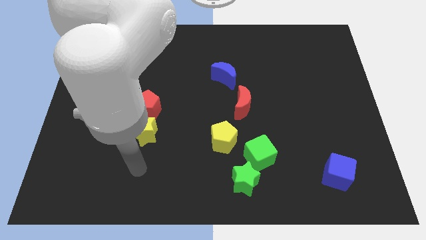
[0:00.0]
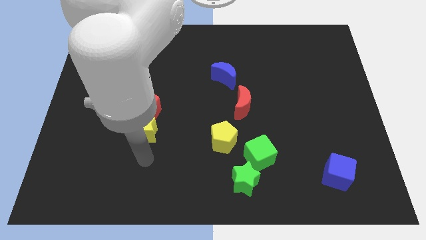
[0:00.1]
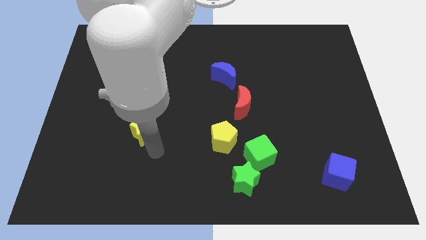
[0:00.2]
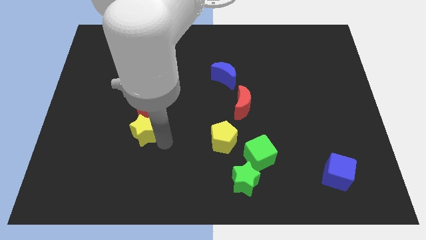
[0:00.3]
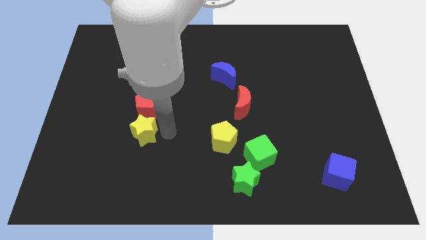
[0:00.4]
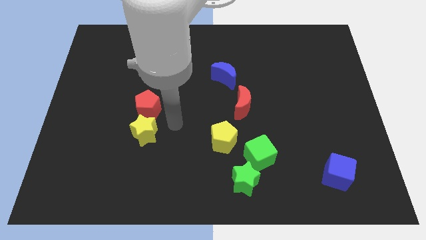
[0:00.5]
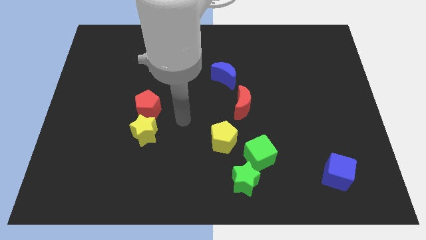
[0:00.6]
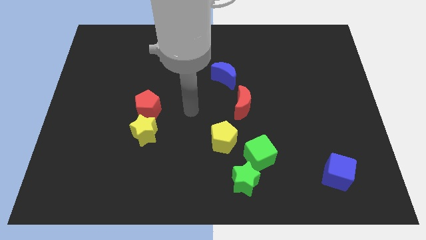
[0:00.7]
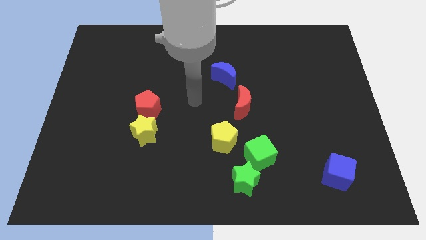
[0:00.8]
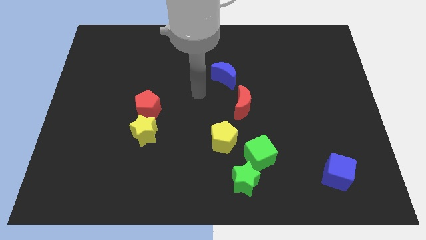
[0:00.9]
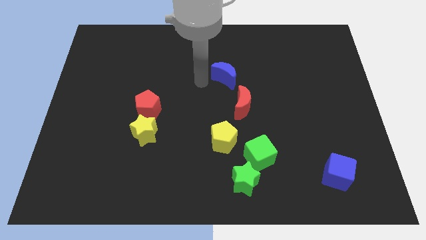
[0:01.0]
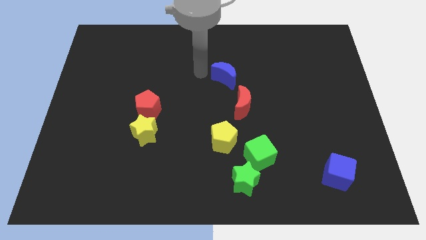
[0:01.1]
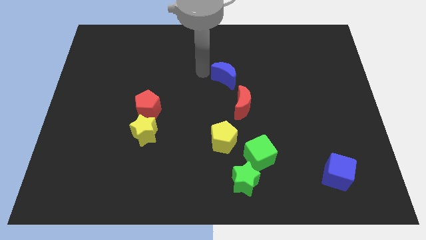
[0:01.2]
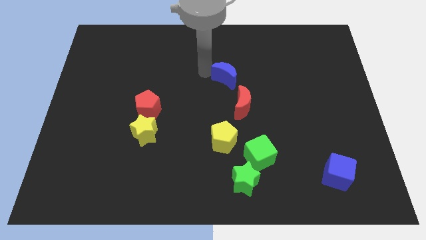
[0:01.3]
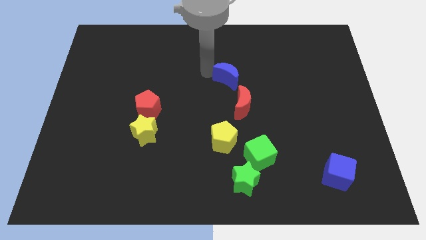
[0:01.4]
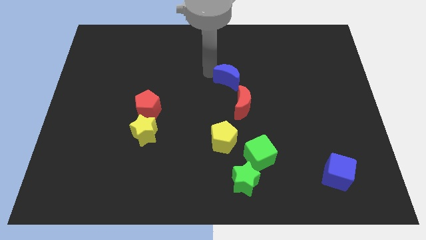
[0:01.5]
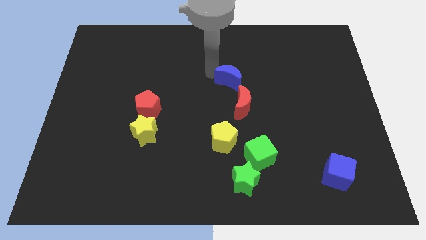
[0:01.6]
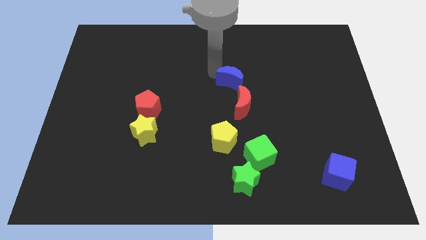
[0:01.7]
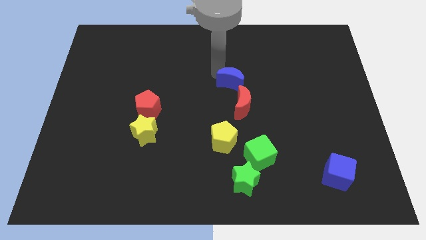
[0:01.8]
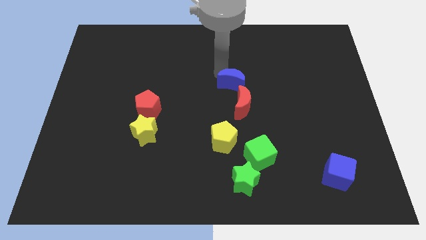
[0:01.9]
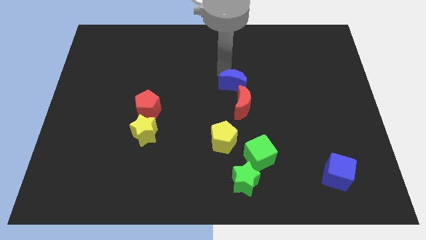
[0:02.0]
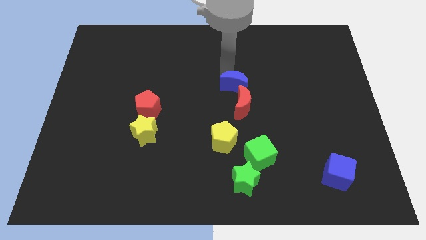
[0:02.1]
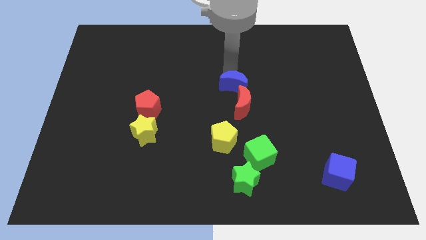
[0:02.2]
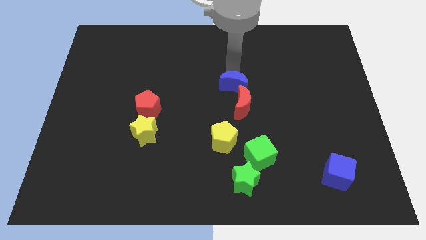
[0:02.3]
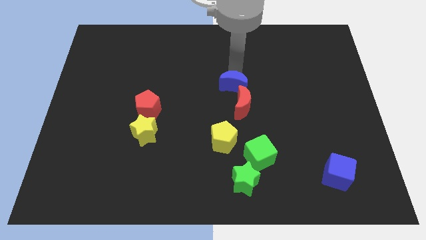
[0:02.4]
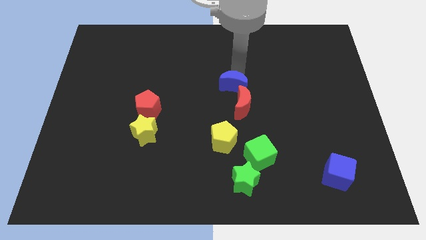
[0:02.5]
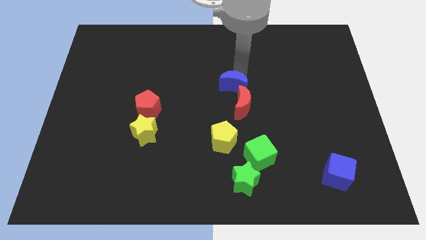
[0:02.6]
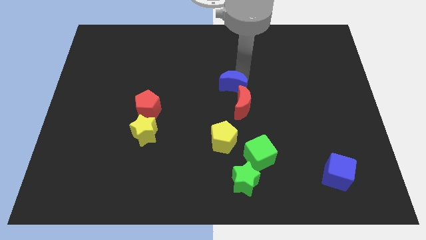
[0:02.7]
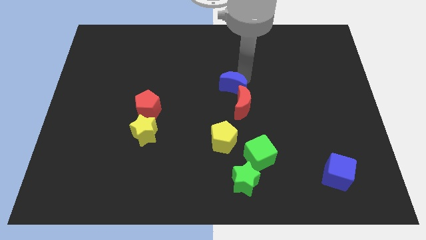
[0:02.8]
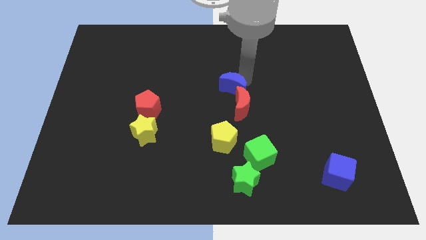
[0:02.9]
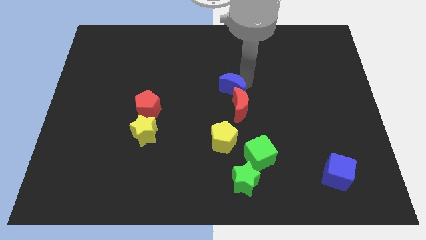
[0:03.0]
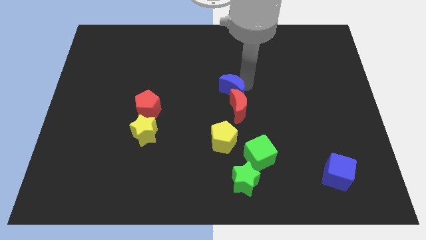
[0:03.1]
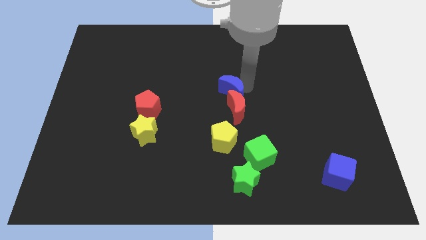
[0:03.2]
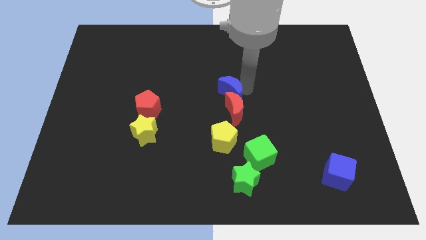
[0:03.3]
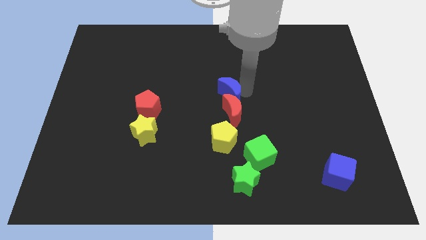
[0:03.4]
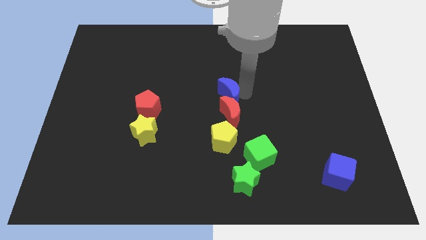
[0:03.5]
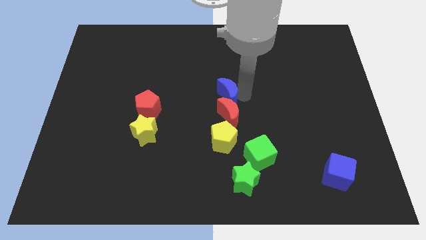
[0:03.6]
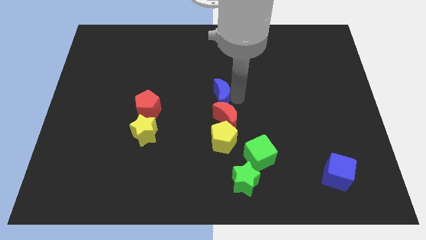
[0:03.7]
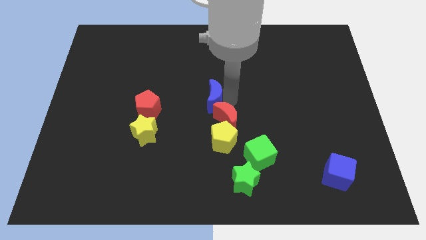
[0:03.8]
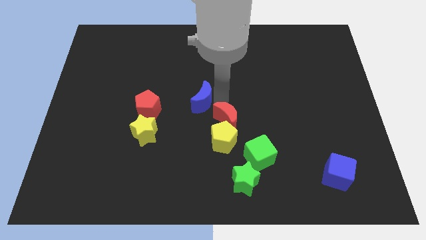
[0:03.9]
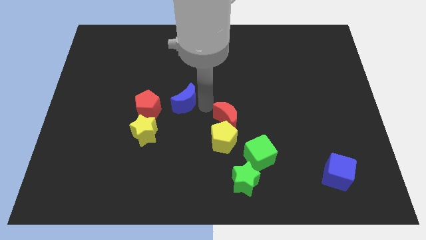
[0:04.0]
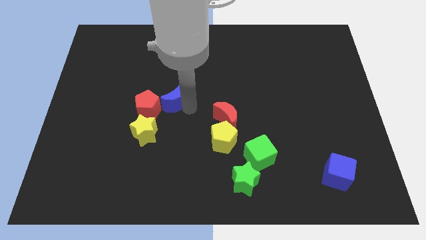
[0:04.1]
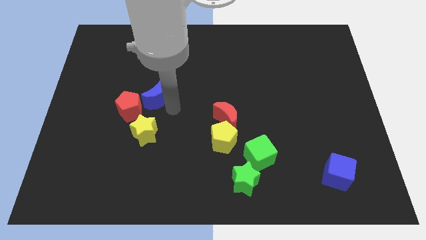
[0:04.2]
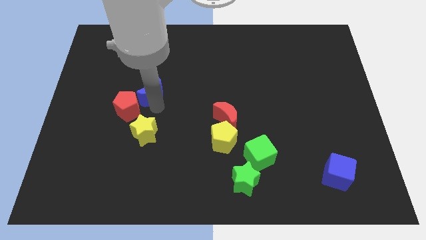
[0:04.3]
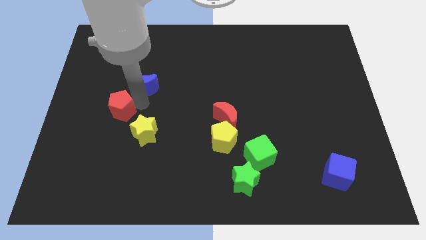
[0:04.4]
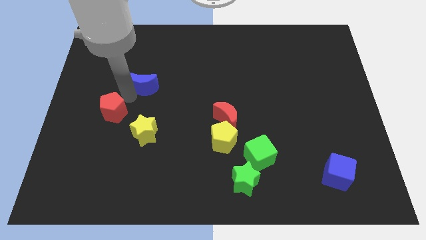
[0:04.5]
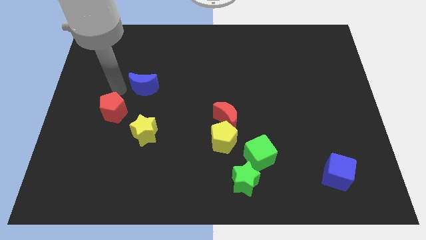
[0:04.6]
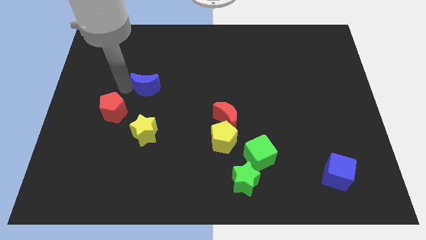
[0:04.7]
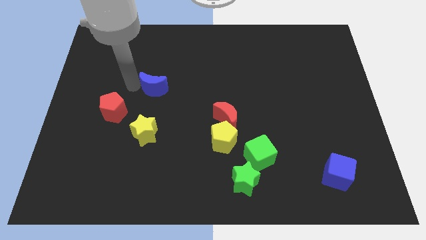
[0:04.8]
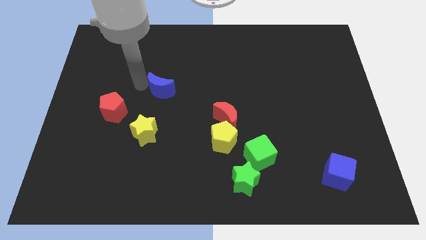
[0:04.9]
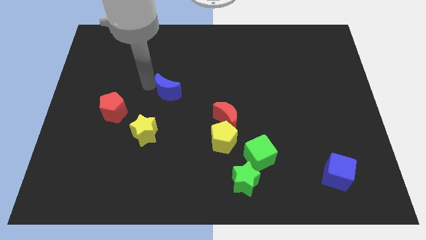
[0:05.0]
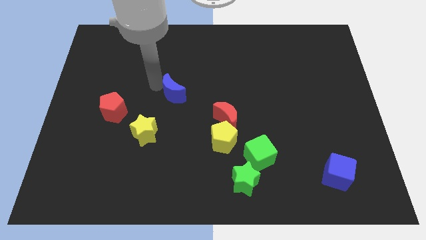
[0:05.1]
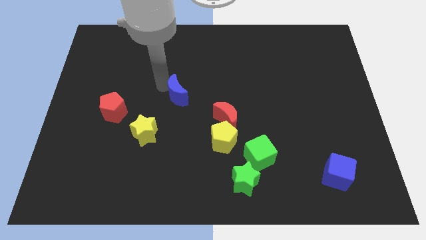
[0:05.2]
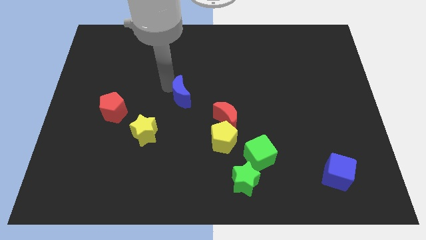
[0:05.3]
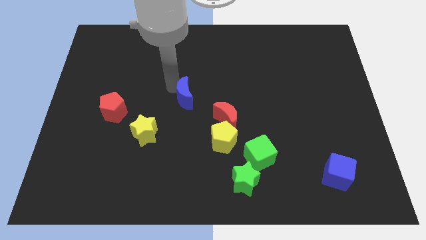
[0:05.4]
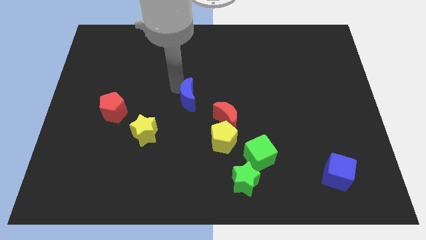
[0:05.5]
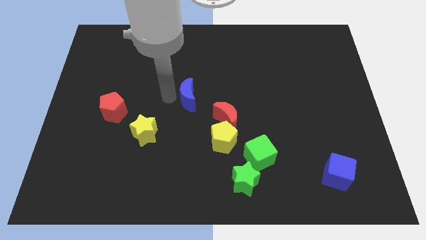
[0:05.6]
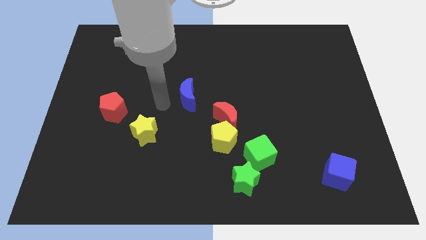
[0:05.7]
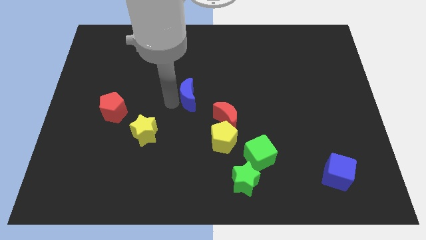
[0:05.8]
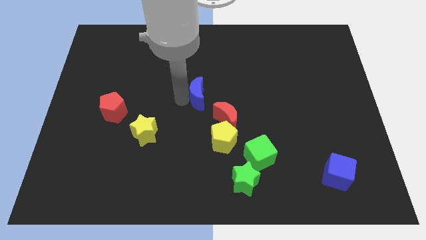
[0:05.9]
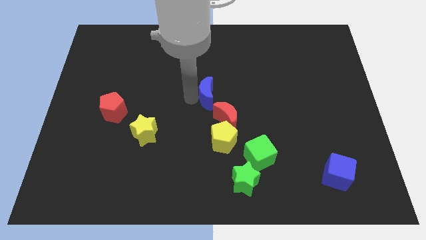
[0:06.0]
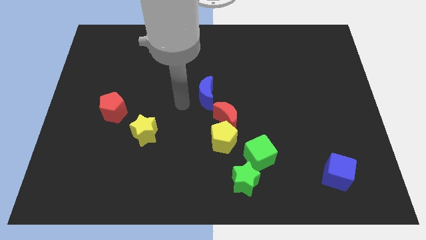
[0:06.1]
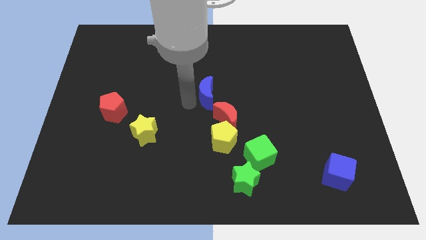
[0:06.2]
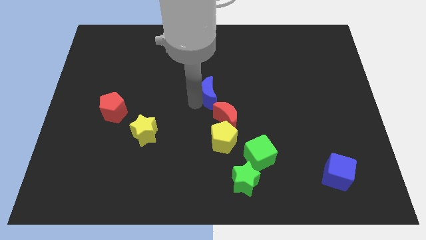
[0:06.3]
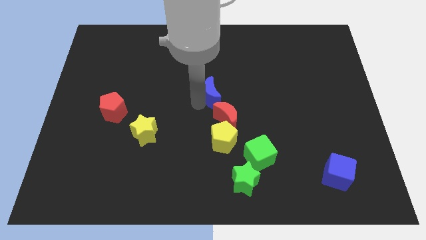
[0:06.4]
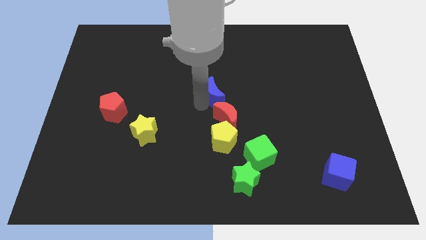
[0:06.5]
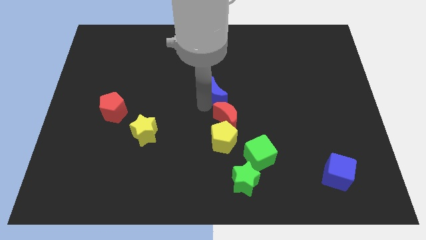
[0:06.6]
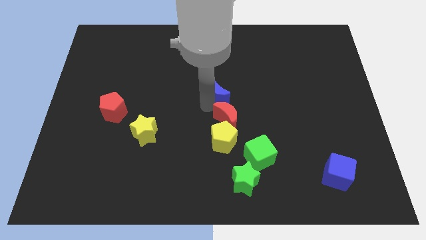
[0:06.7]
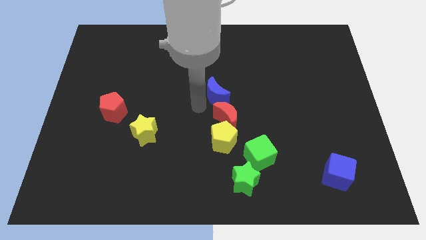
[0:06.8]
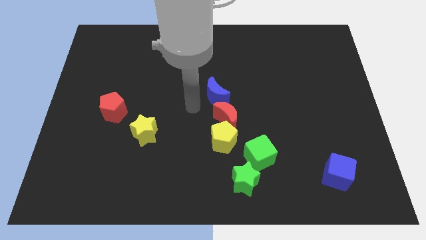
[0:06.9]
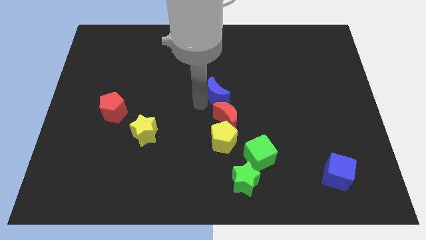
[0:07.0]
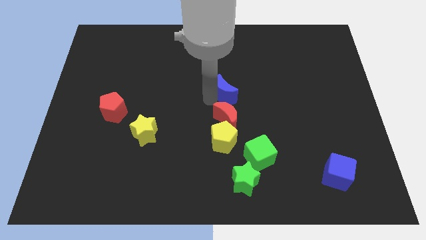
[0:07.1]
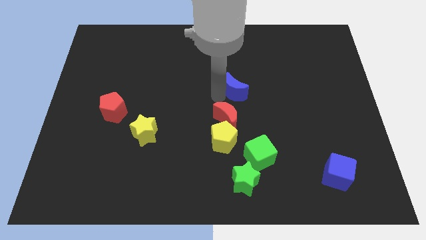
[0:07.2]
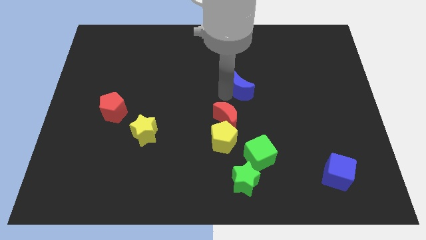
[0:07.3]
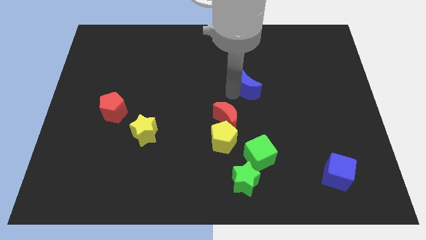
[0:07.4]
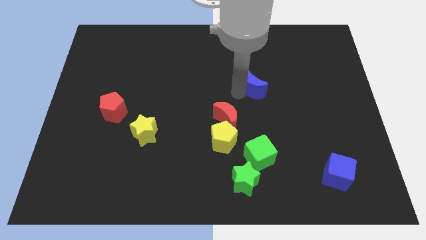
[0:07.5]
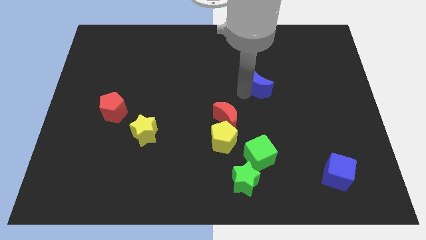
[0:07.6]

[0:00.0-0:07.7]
push the blue moon right a little

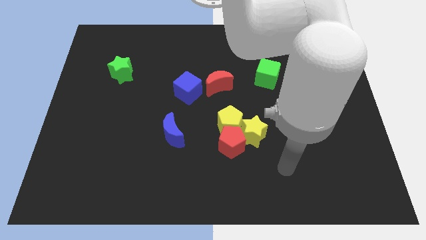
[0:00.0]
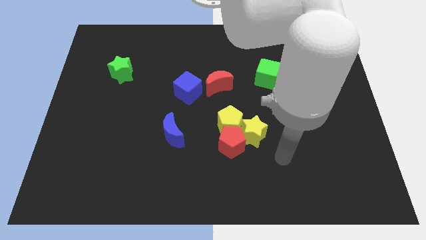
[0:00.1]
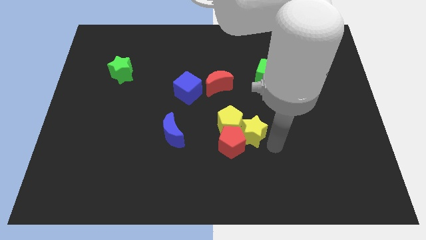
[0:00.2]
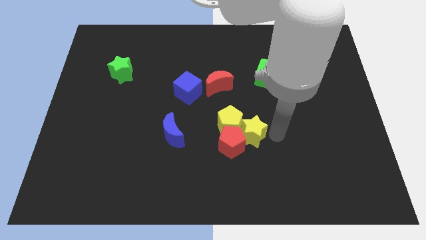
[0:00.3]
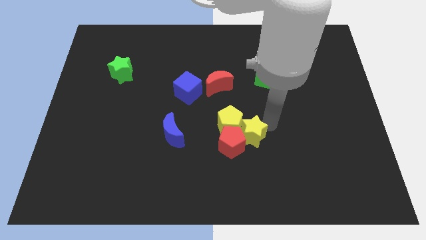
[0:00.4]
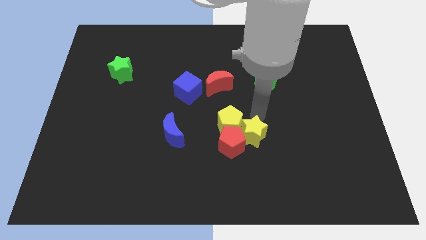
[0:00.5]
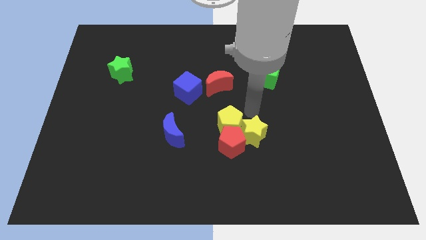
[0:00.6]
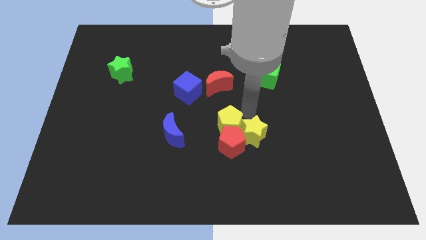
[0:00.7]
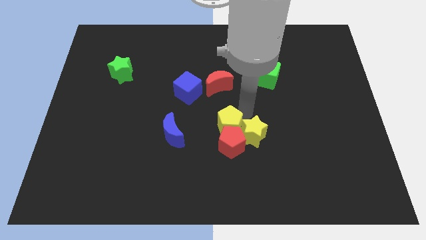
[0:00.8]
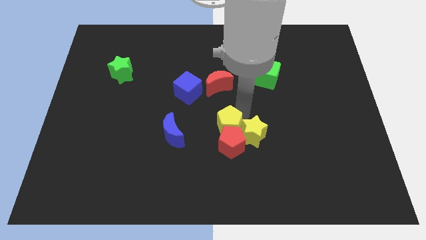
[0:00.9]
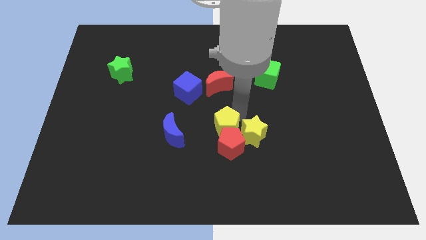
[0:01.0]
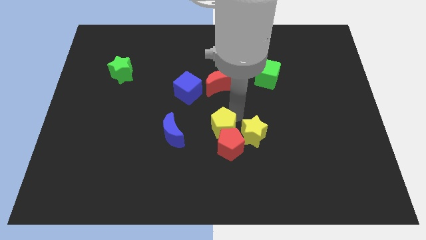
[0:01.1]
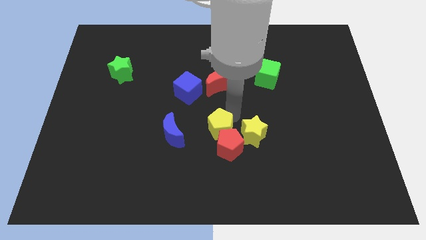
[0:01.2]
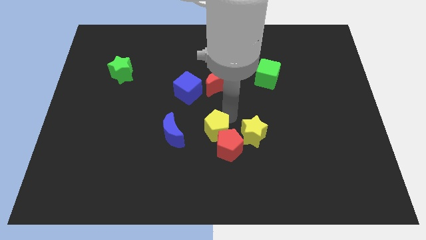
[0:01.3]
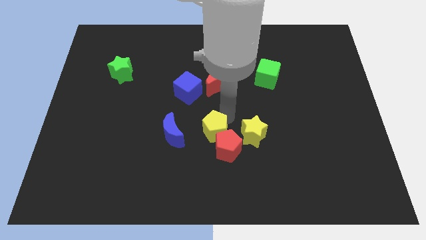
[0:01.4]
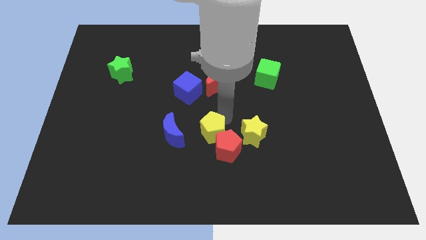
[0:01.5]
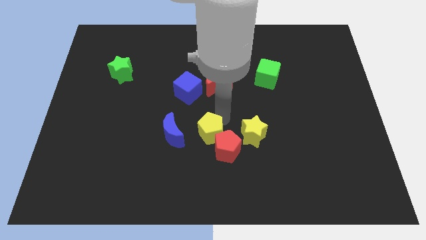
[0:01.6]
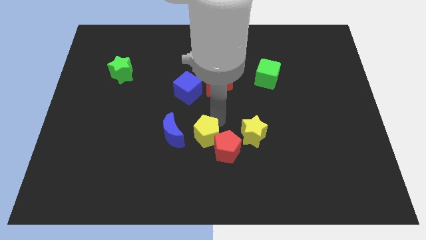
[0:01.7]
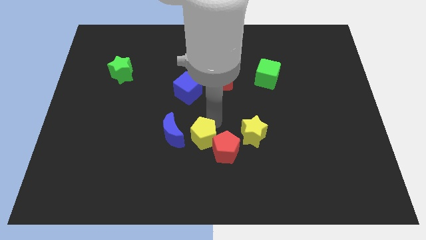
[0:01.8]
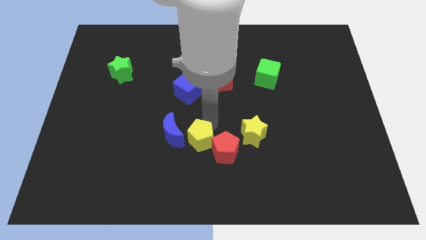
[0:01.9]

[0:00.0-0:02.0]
slightly slide the yellow pentagon diagonally down and to the left
